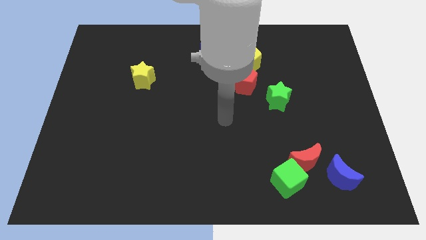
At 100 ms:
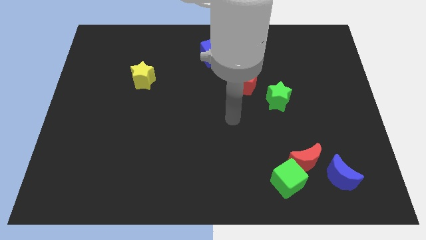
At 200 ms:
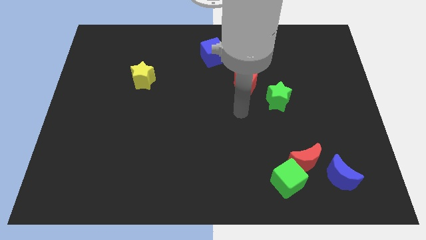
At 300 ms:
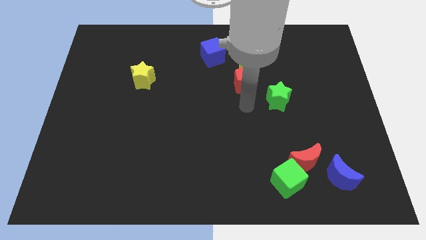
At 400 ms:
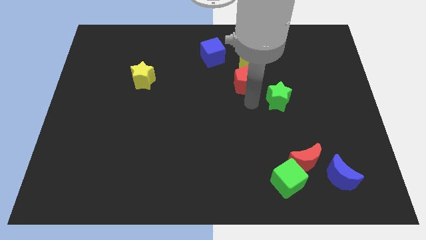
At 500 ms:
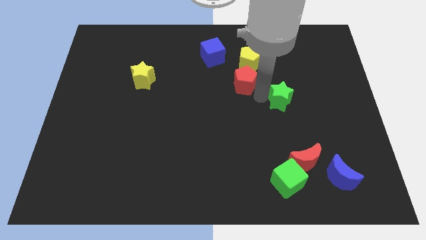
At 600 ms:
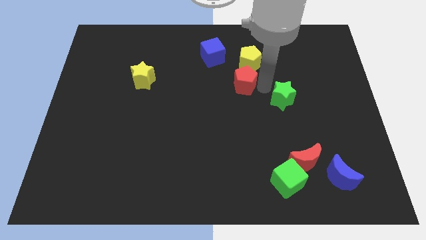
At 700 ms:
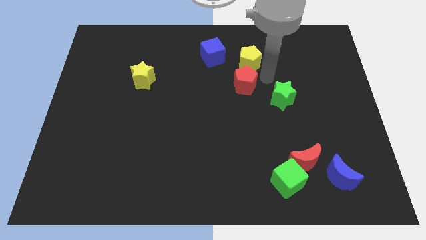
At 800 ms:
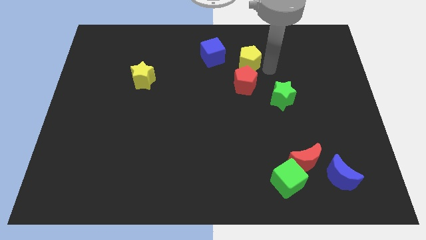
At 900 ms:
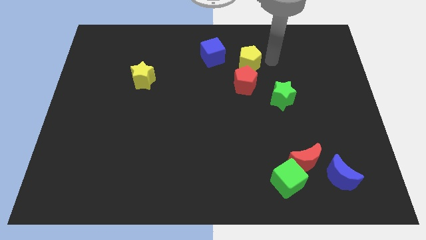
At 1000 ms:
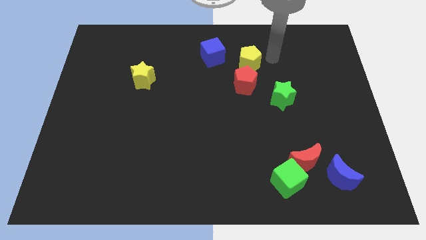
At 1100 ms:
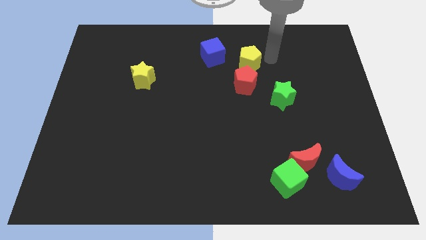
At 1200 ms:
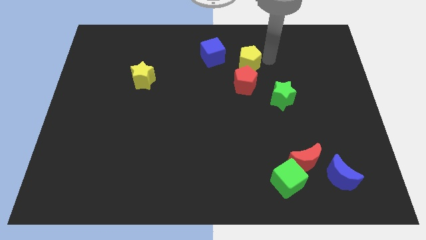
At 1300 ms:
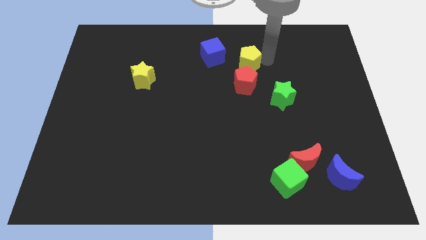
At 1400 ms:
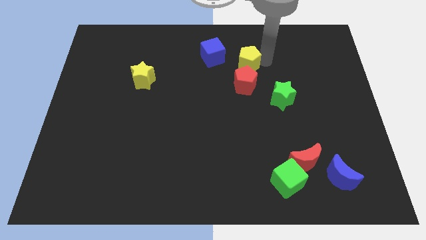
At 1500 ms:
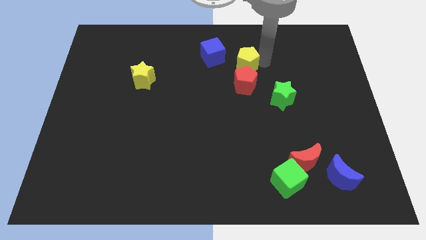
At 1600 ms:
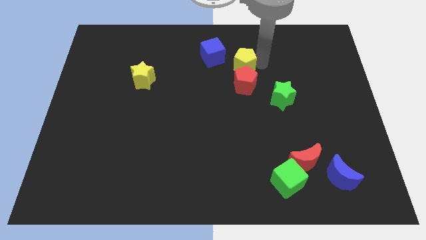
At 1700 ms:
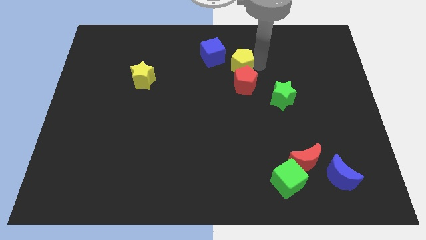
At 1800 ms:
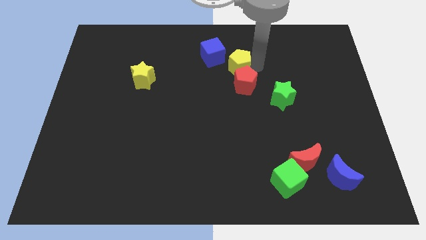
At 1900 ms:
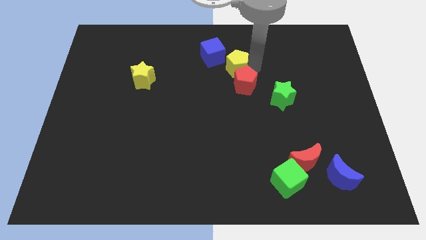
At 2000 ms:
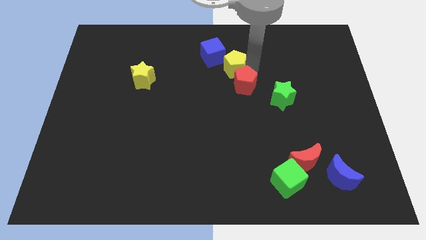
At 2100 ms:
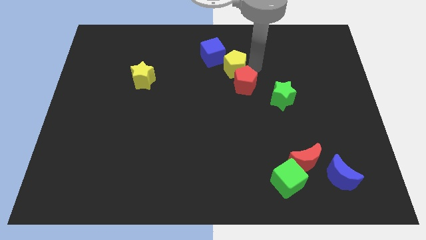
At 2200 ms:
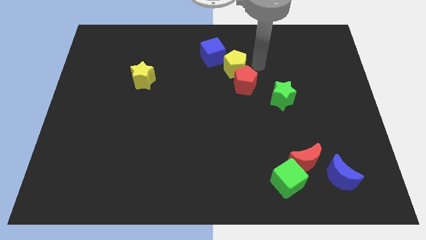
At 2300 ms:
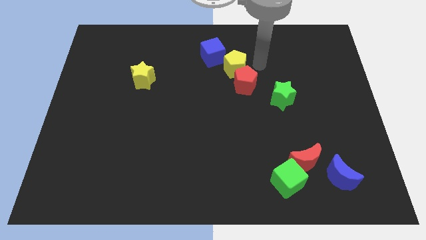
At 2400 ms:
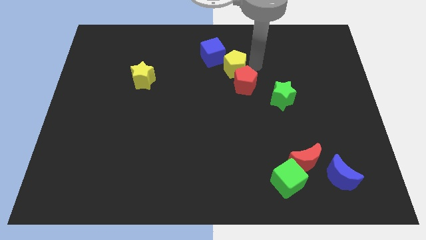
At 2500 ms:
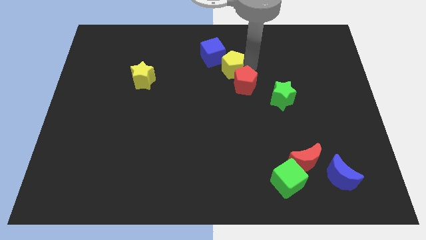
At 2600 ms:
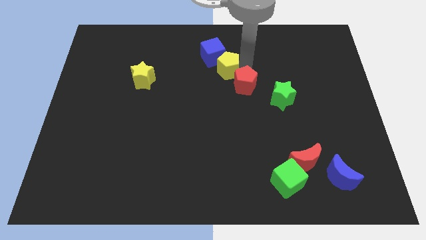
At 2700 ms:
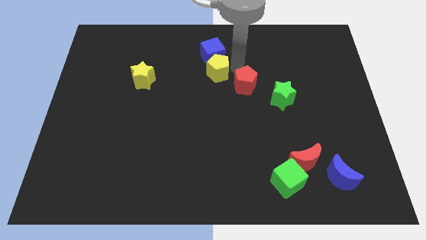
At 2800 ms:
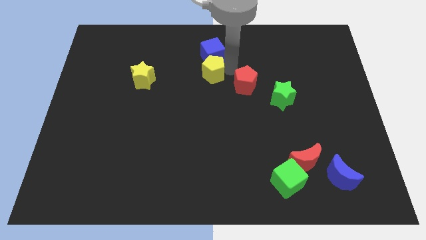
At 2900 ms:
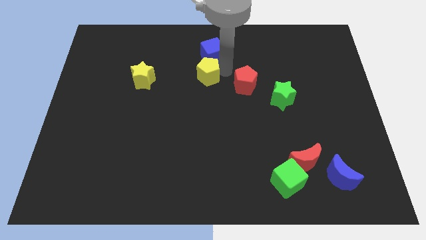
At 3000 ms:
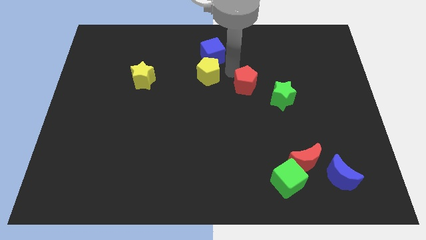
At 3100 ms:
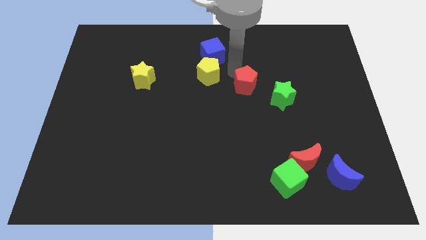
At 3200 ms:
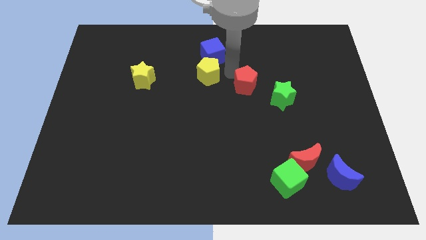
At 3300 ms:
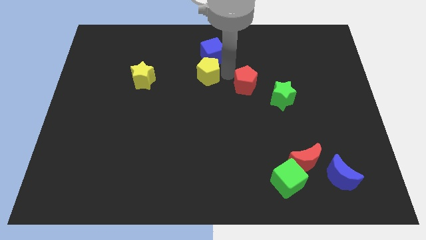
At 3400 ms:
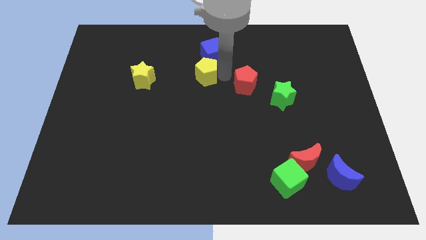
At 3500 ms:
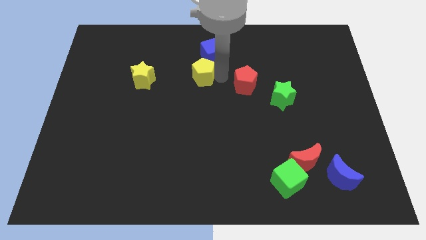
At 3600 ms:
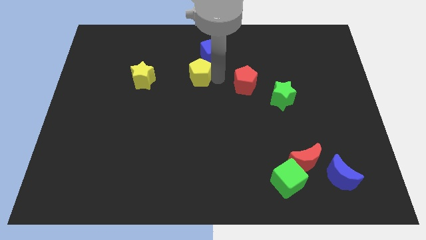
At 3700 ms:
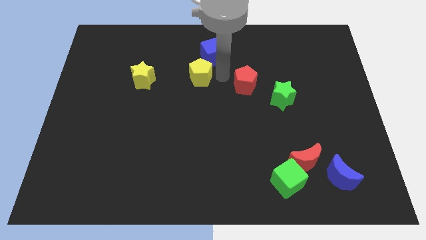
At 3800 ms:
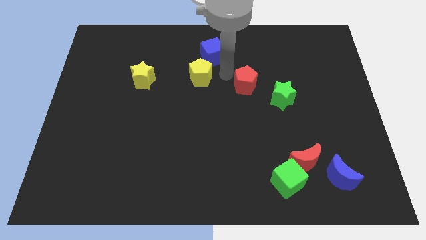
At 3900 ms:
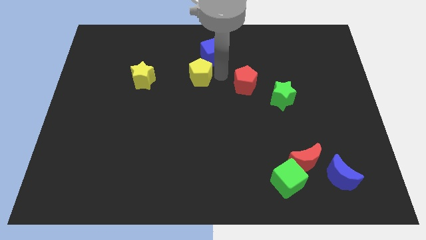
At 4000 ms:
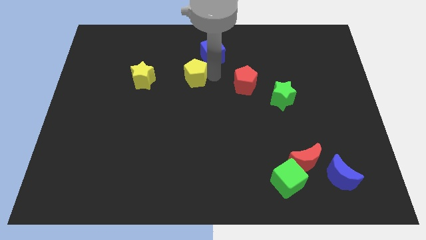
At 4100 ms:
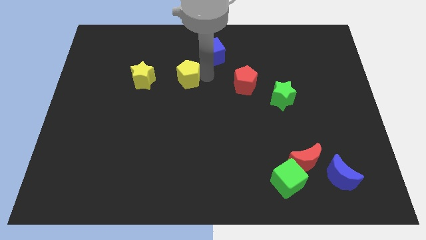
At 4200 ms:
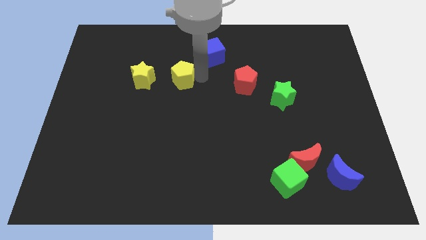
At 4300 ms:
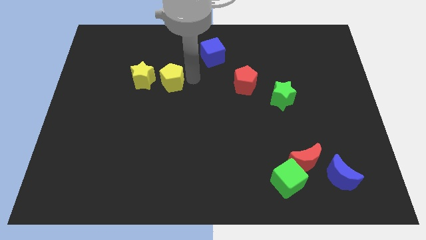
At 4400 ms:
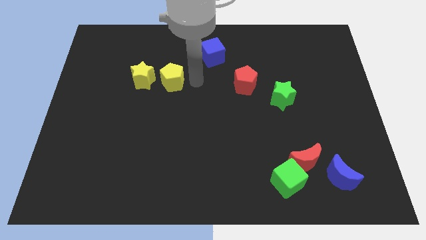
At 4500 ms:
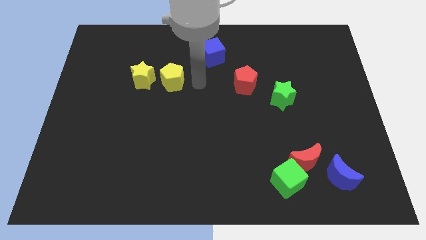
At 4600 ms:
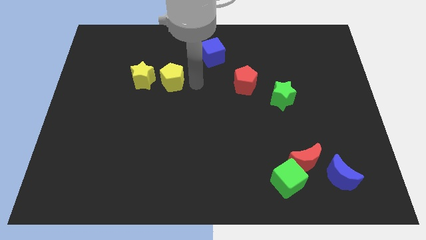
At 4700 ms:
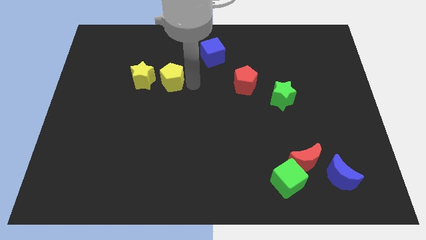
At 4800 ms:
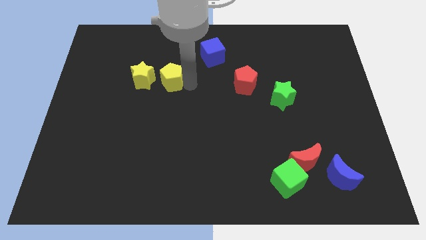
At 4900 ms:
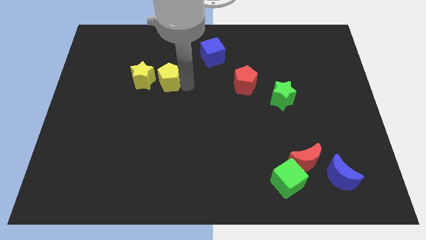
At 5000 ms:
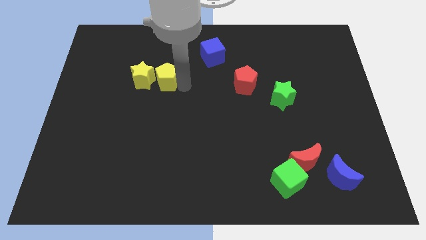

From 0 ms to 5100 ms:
push the yellow pentagon towards the yellow star

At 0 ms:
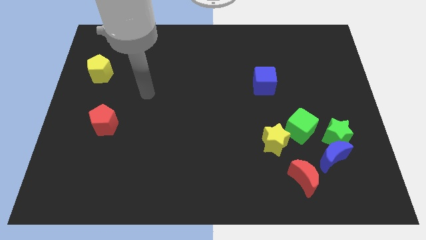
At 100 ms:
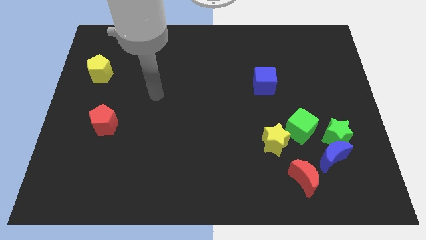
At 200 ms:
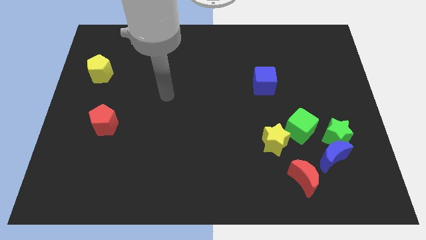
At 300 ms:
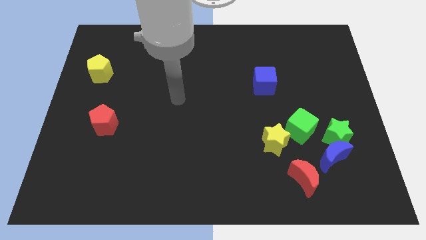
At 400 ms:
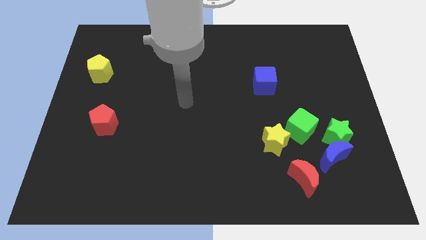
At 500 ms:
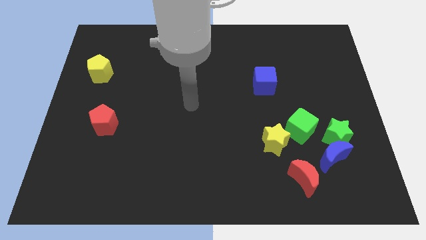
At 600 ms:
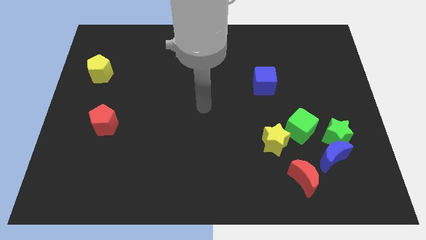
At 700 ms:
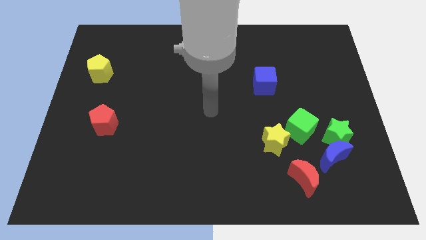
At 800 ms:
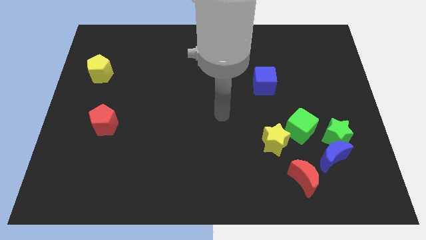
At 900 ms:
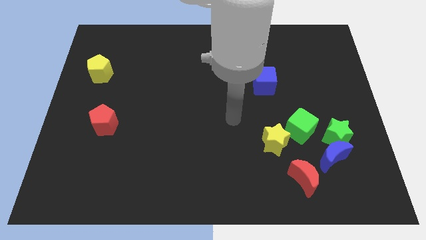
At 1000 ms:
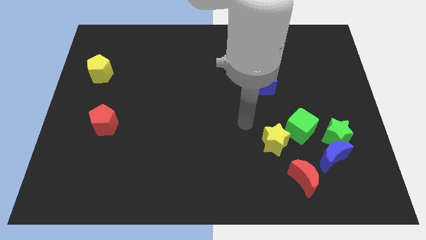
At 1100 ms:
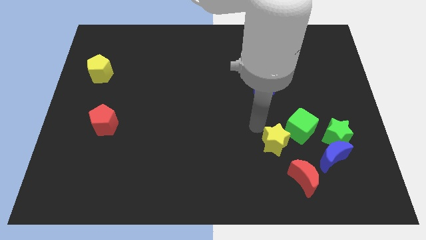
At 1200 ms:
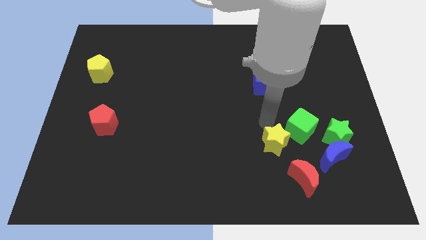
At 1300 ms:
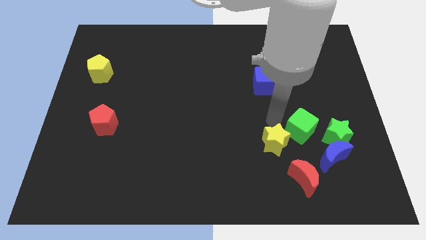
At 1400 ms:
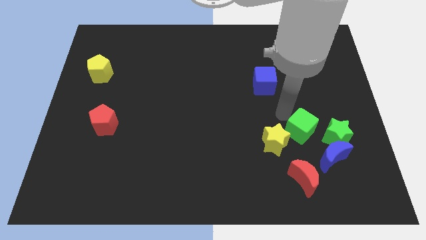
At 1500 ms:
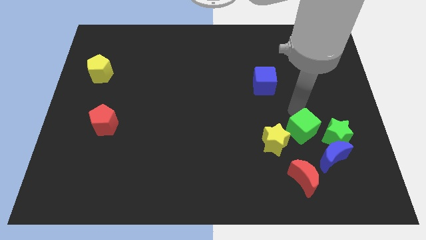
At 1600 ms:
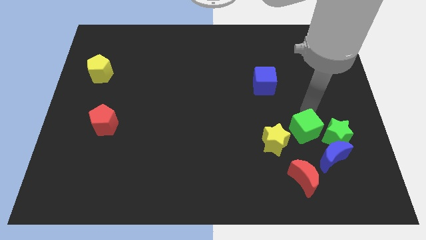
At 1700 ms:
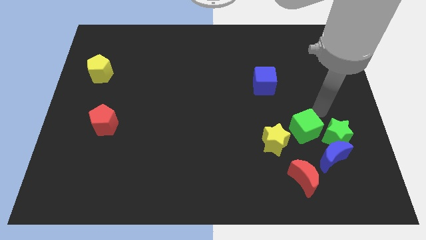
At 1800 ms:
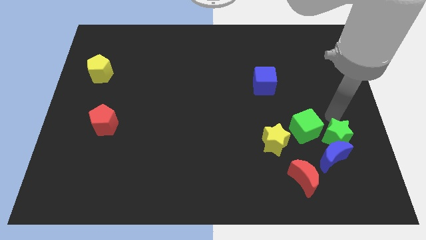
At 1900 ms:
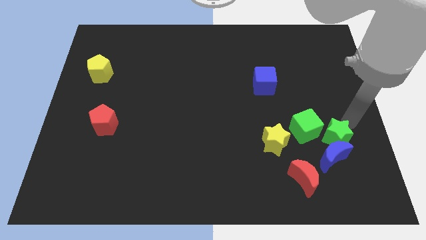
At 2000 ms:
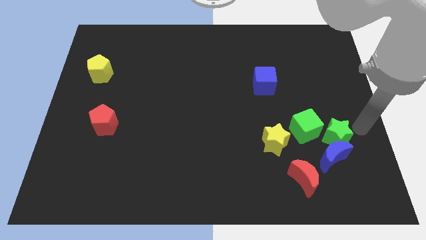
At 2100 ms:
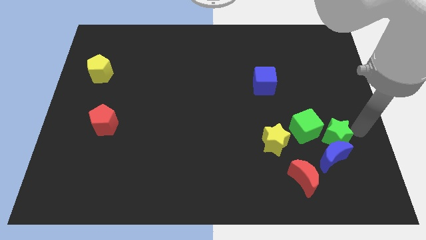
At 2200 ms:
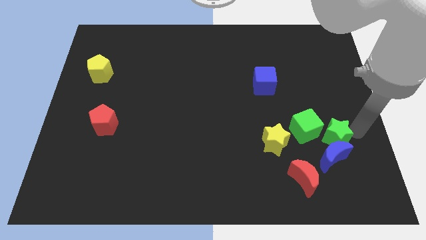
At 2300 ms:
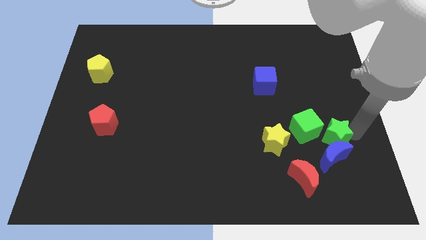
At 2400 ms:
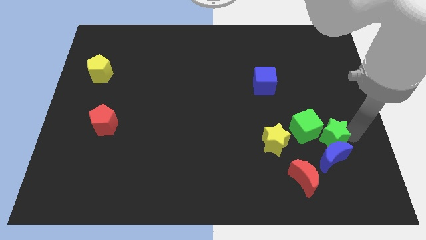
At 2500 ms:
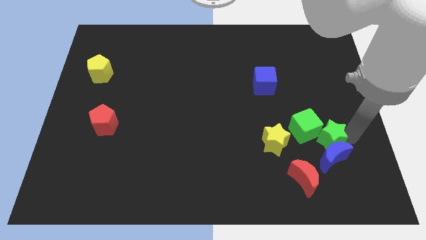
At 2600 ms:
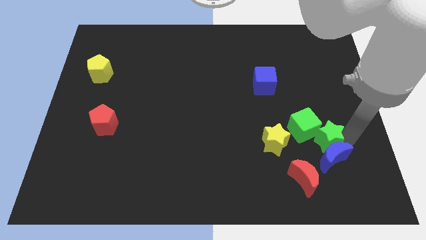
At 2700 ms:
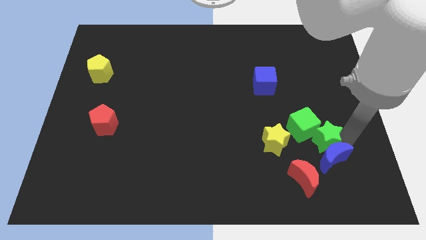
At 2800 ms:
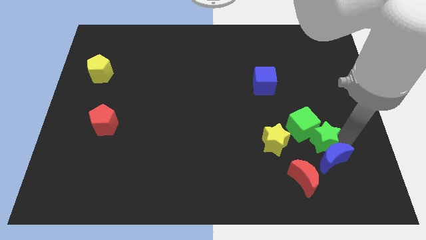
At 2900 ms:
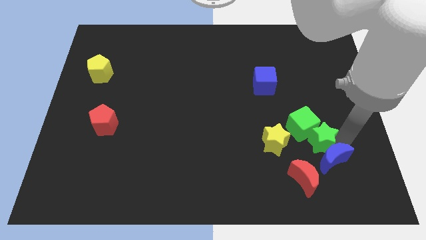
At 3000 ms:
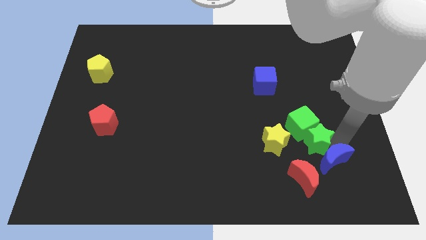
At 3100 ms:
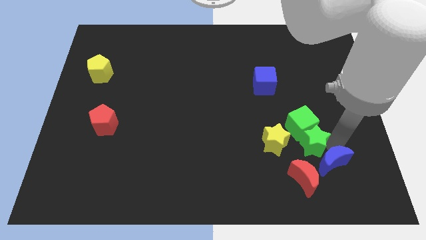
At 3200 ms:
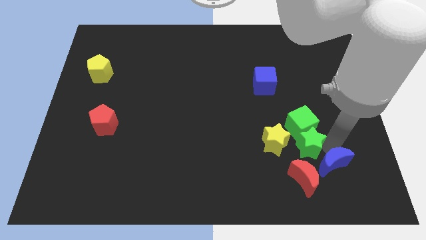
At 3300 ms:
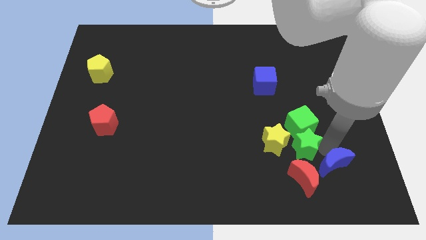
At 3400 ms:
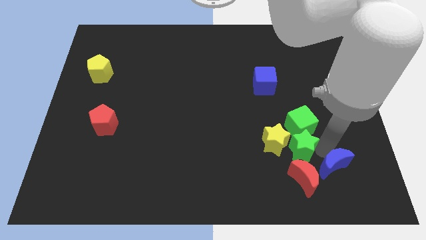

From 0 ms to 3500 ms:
put the green star next to the yellow star
